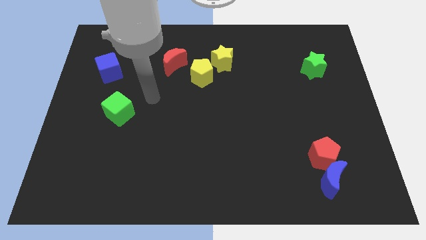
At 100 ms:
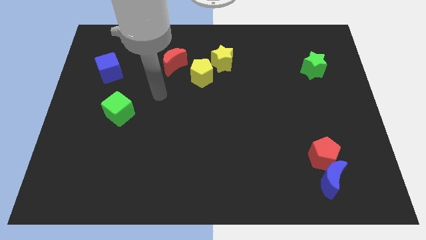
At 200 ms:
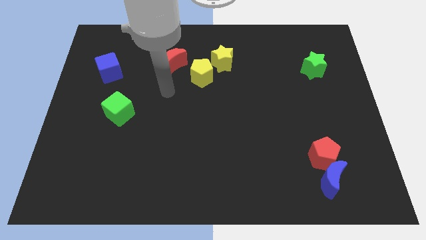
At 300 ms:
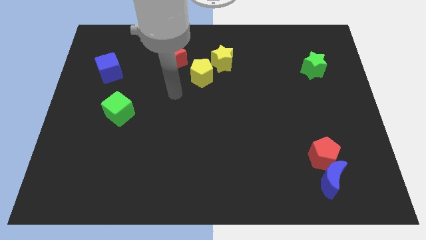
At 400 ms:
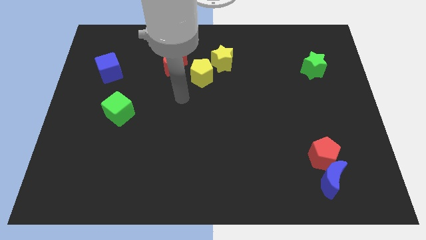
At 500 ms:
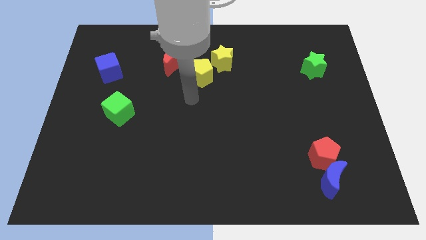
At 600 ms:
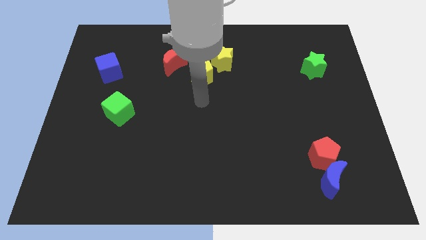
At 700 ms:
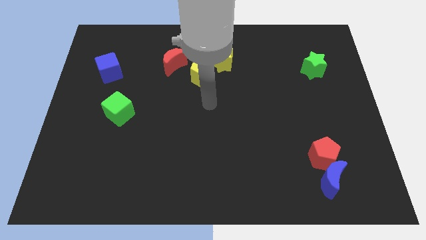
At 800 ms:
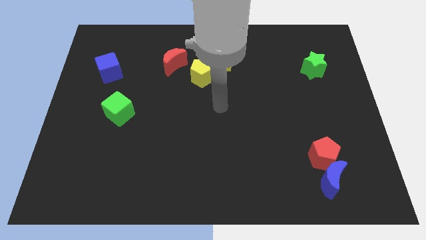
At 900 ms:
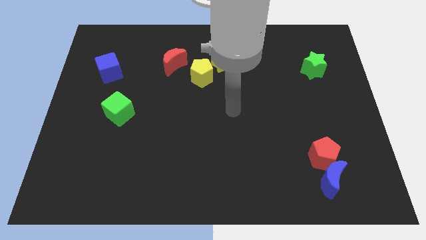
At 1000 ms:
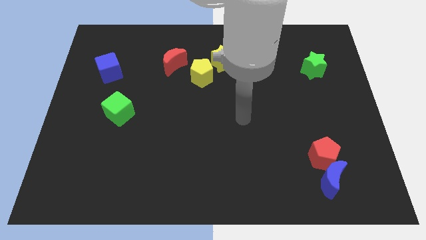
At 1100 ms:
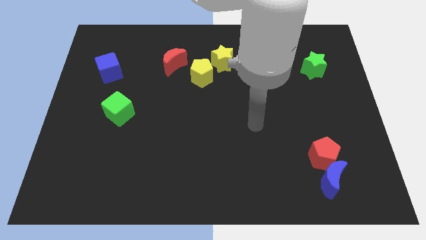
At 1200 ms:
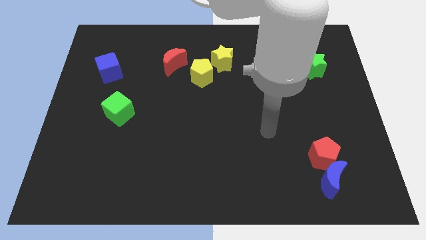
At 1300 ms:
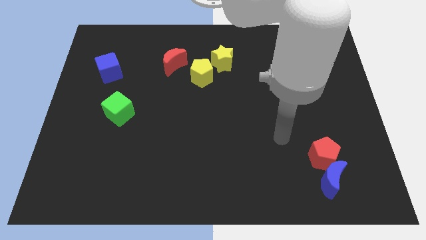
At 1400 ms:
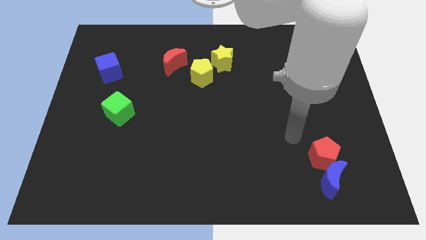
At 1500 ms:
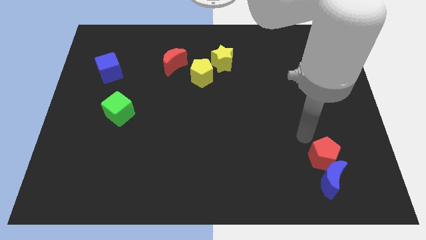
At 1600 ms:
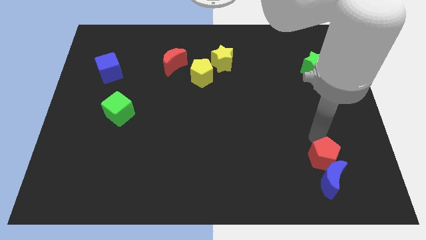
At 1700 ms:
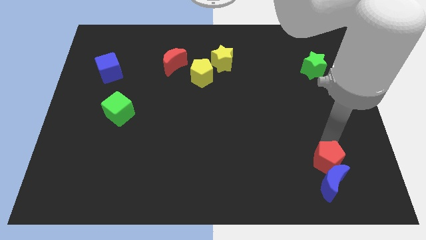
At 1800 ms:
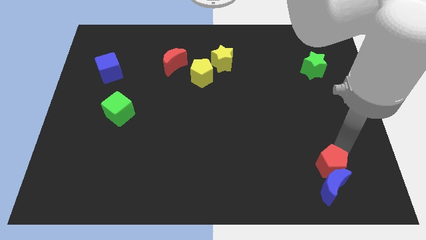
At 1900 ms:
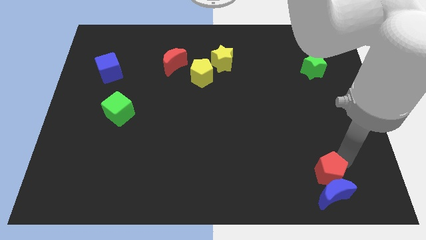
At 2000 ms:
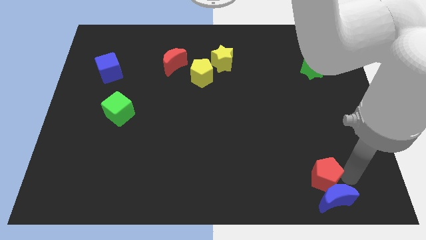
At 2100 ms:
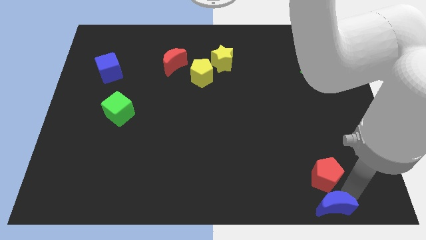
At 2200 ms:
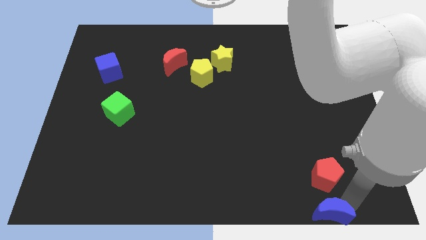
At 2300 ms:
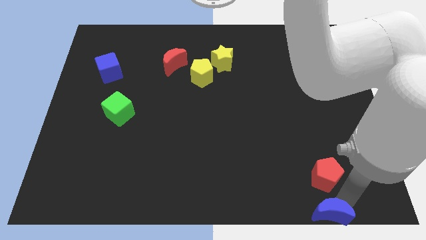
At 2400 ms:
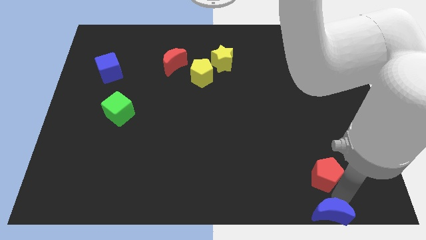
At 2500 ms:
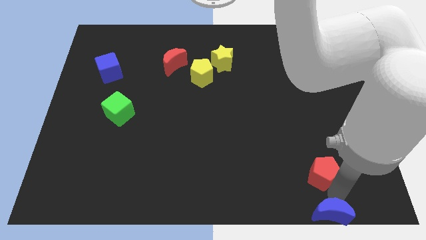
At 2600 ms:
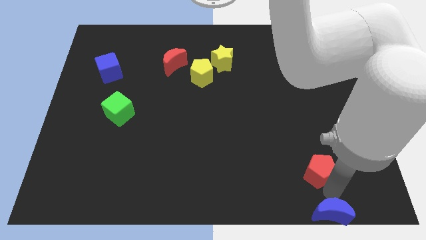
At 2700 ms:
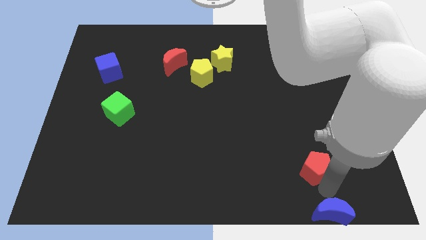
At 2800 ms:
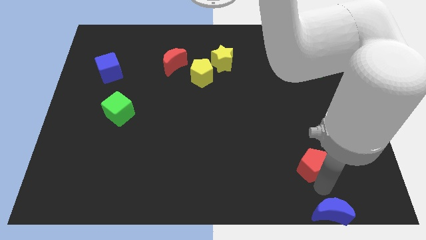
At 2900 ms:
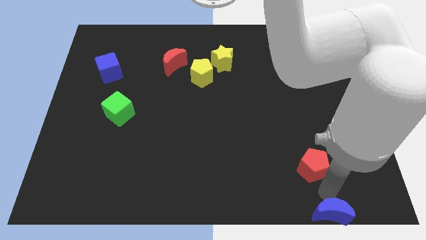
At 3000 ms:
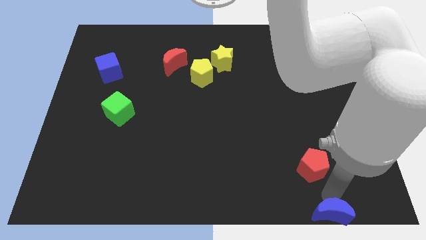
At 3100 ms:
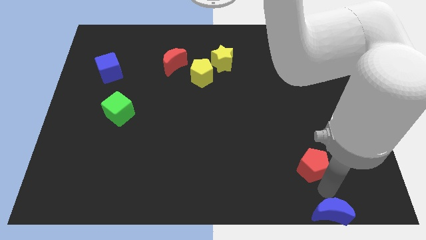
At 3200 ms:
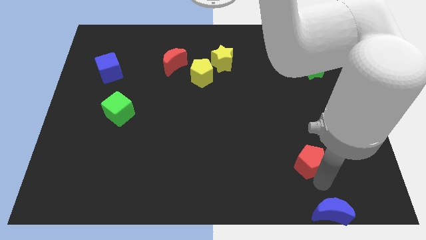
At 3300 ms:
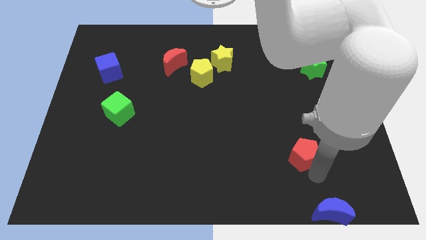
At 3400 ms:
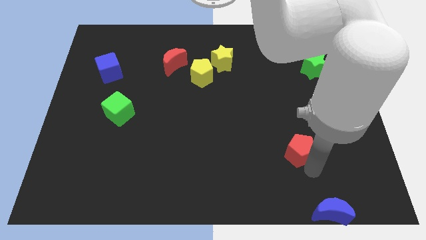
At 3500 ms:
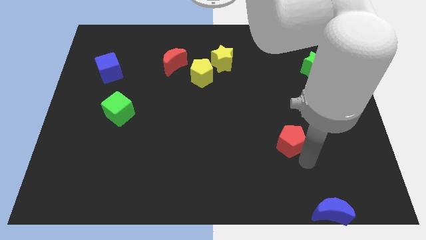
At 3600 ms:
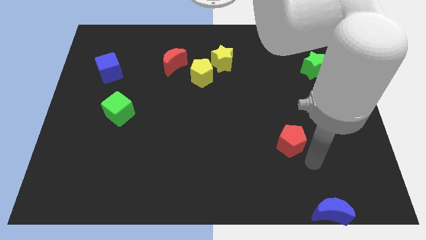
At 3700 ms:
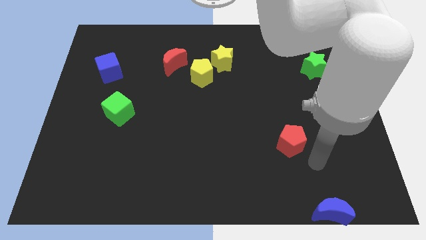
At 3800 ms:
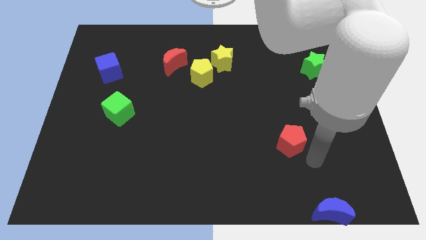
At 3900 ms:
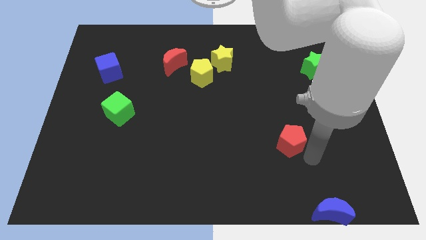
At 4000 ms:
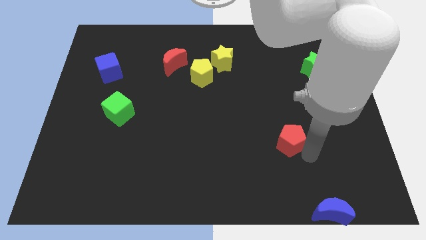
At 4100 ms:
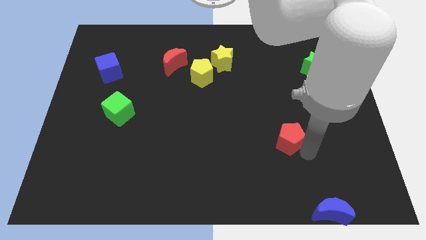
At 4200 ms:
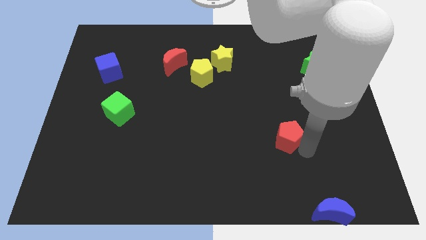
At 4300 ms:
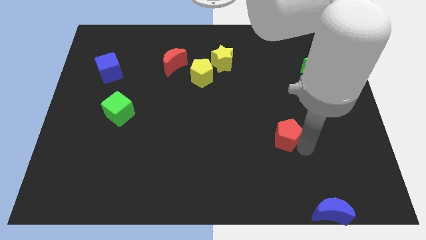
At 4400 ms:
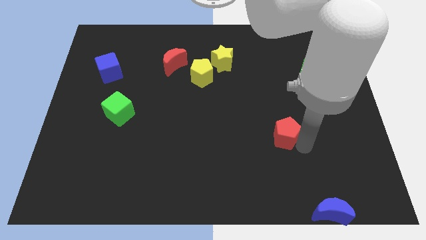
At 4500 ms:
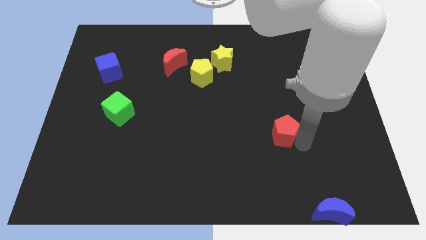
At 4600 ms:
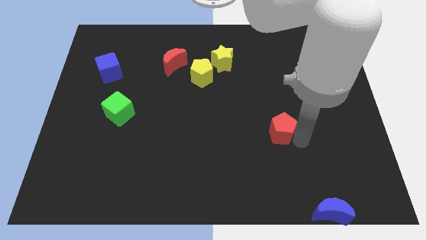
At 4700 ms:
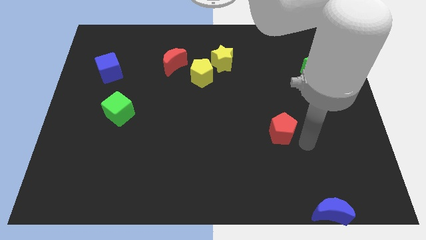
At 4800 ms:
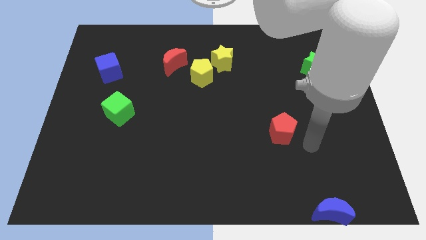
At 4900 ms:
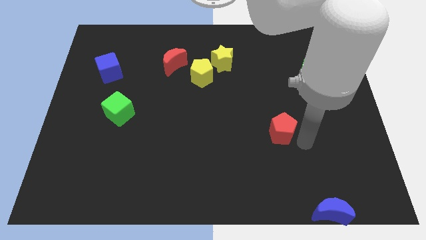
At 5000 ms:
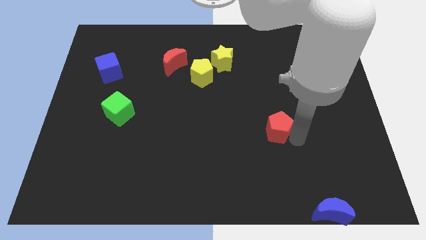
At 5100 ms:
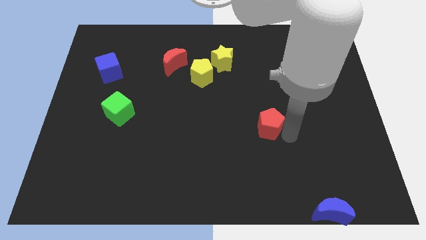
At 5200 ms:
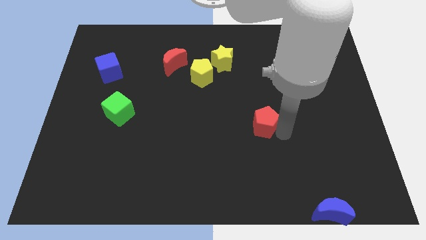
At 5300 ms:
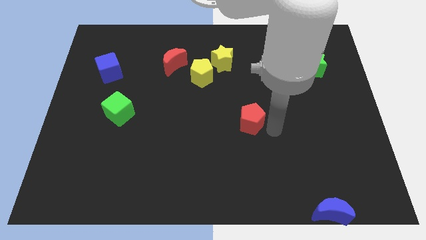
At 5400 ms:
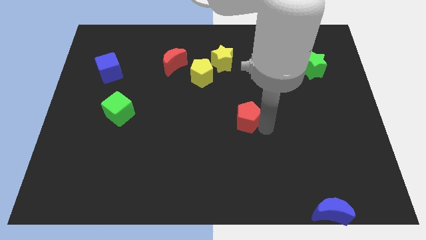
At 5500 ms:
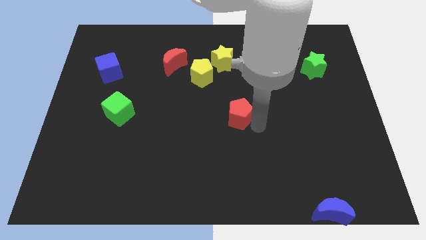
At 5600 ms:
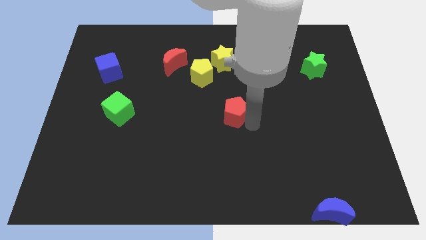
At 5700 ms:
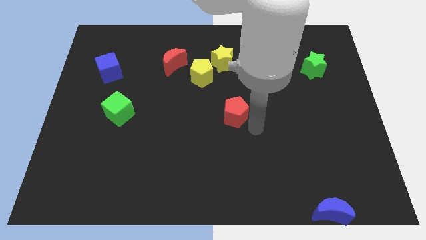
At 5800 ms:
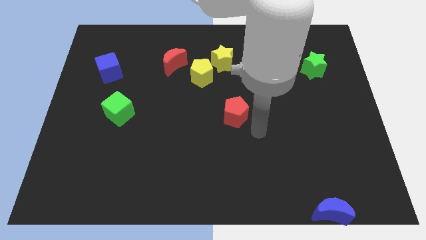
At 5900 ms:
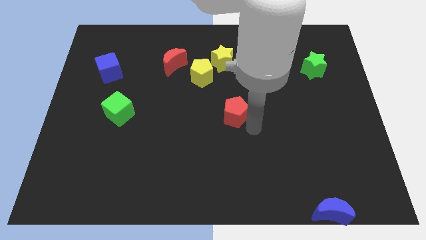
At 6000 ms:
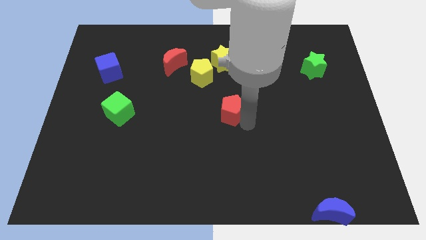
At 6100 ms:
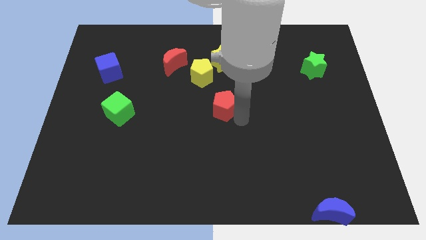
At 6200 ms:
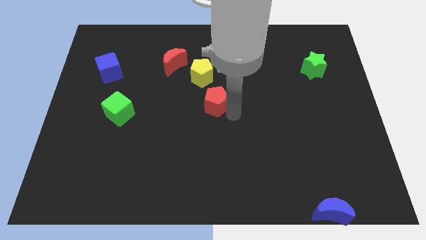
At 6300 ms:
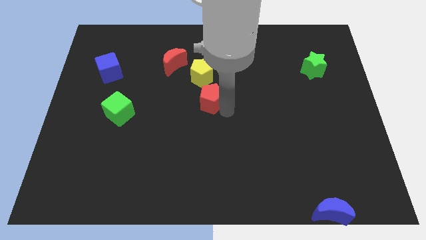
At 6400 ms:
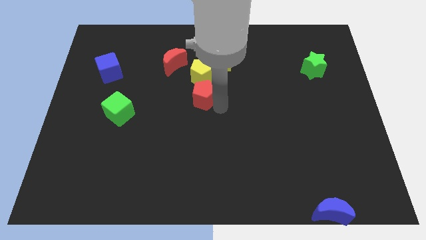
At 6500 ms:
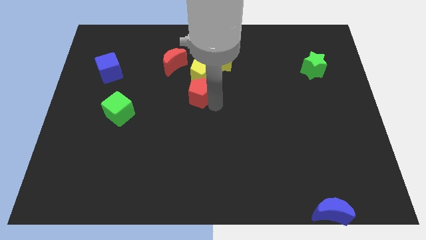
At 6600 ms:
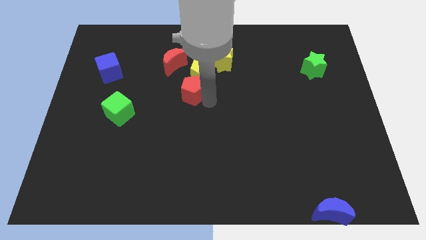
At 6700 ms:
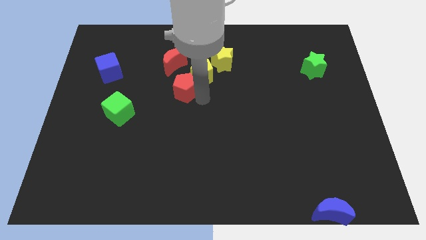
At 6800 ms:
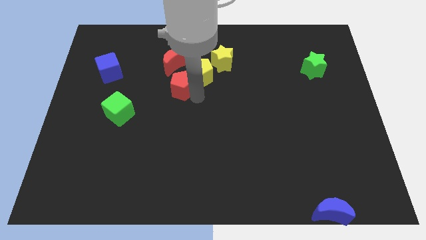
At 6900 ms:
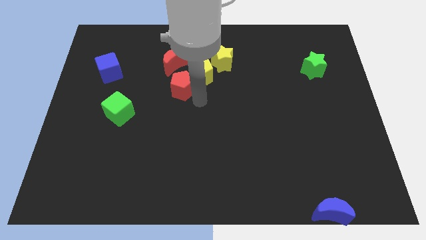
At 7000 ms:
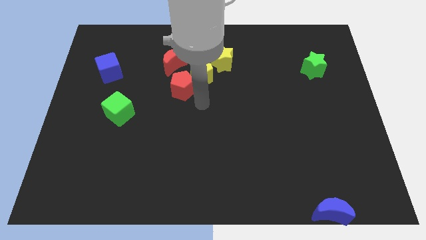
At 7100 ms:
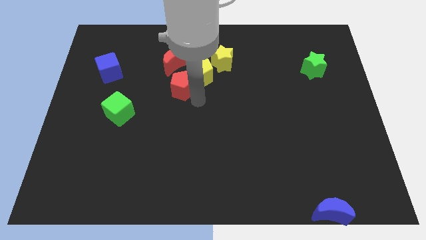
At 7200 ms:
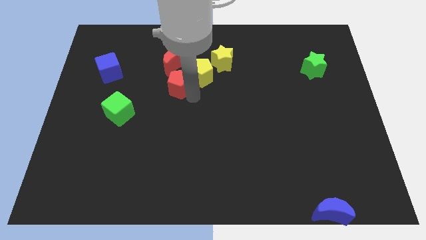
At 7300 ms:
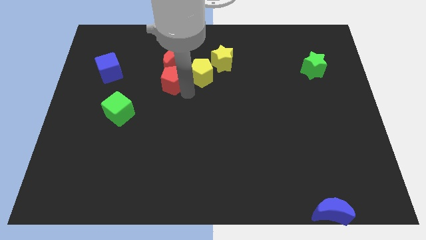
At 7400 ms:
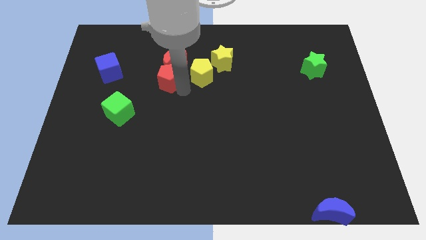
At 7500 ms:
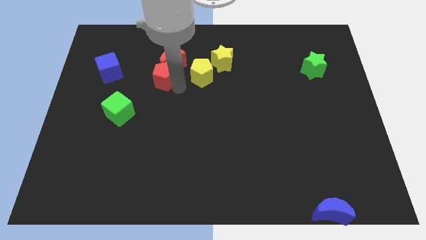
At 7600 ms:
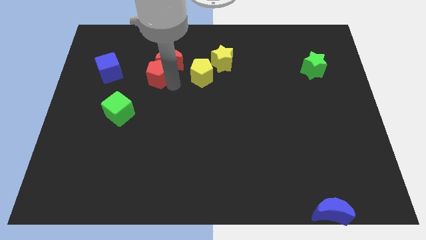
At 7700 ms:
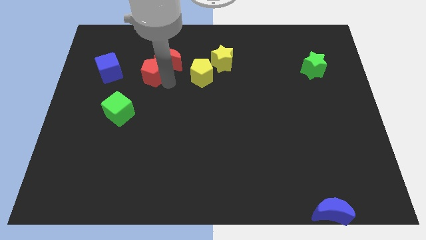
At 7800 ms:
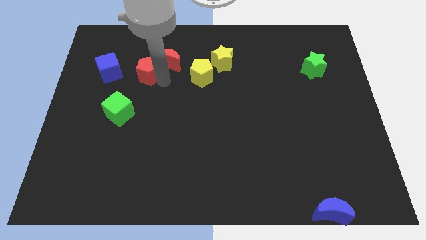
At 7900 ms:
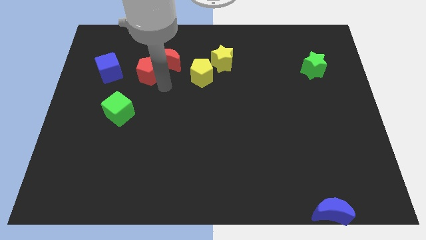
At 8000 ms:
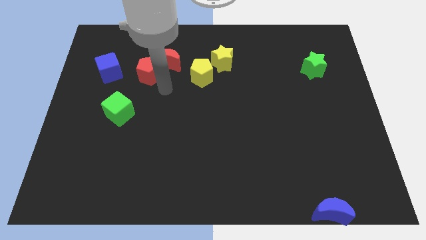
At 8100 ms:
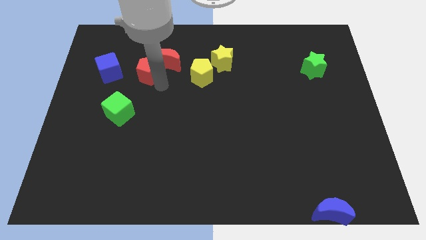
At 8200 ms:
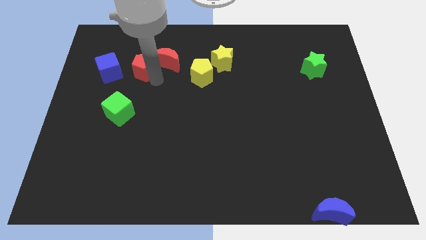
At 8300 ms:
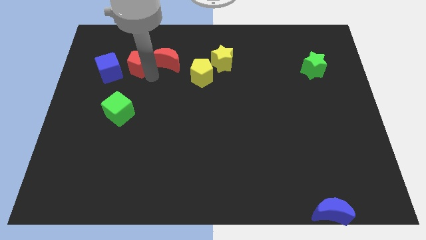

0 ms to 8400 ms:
put the red pentagon diagonally up and to the right of the blue cube
